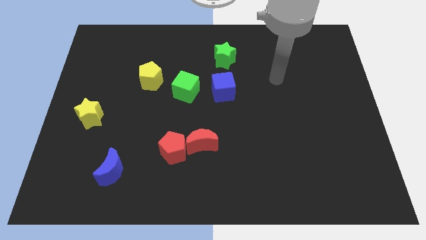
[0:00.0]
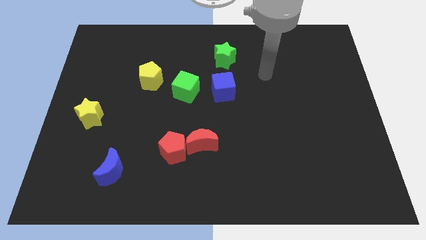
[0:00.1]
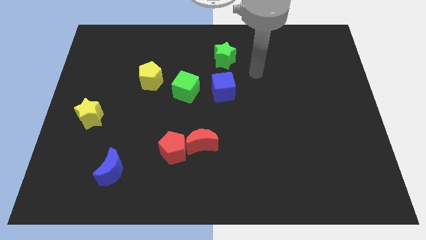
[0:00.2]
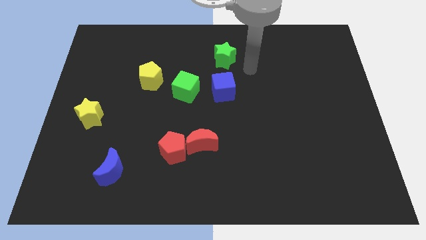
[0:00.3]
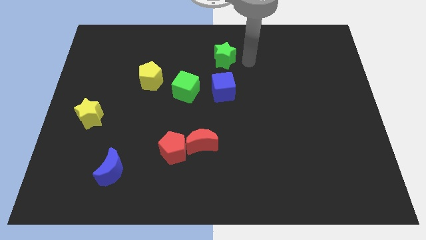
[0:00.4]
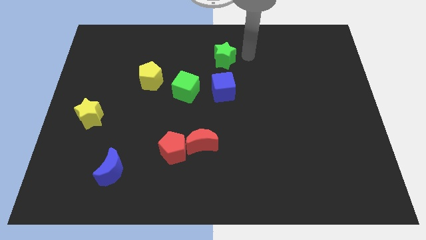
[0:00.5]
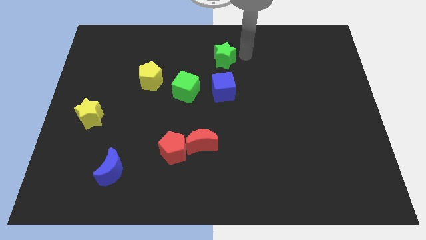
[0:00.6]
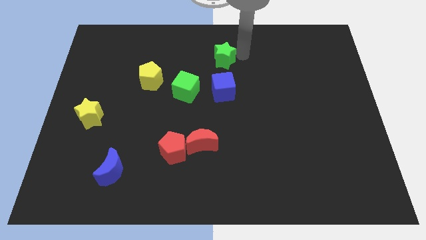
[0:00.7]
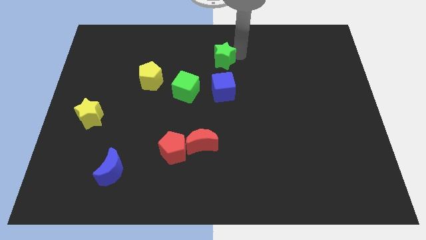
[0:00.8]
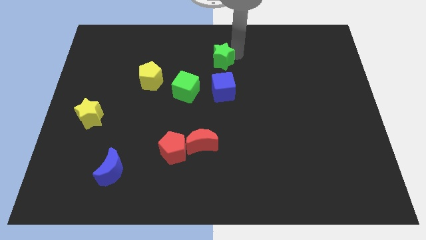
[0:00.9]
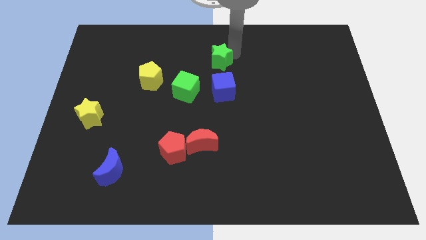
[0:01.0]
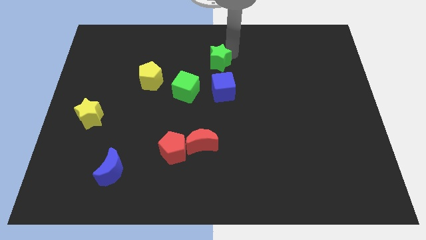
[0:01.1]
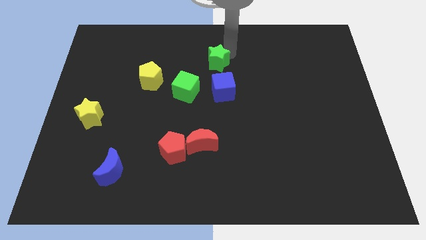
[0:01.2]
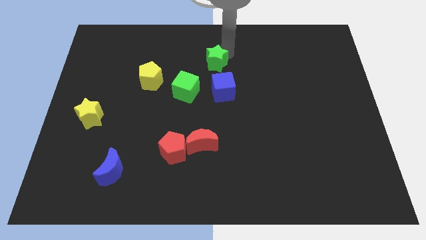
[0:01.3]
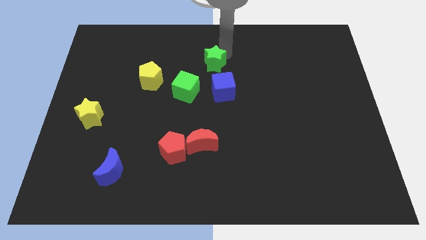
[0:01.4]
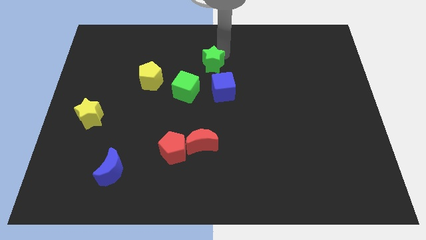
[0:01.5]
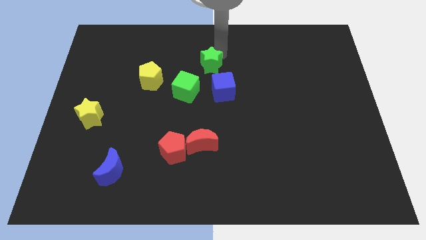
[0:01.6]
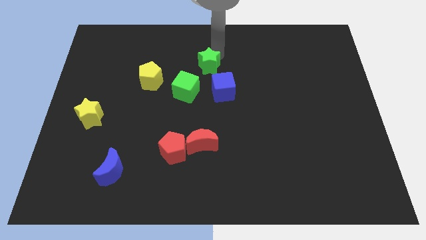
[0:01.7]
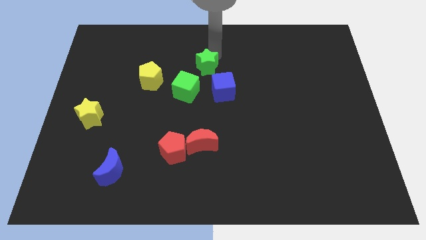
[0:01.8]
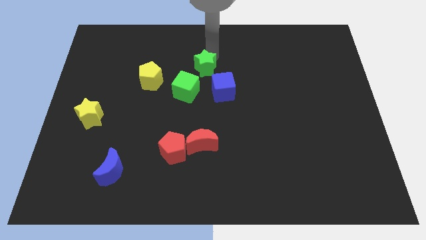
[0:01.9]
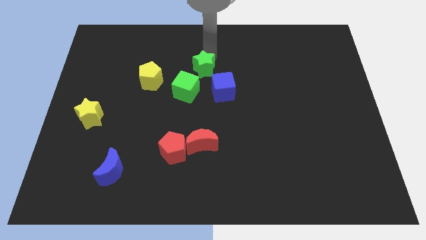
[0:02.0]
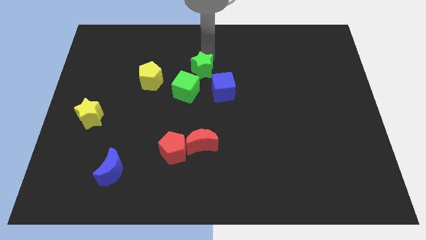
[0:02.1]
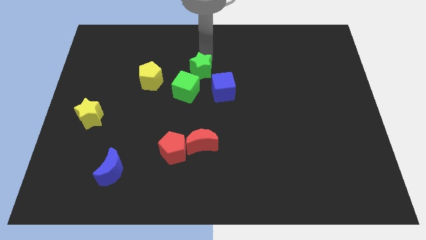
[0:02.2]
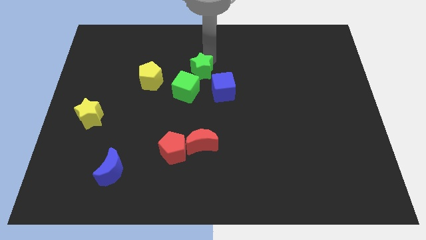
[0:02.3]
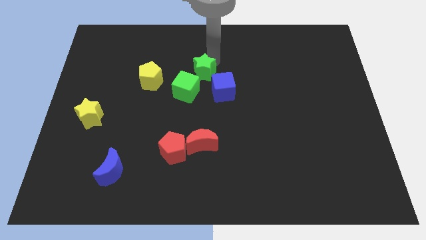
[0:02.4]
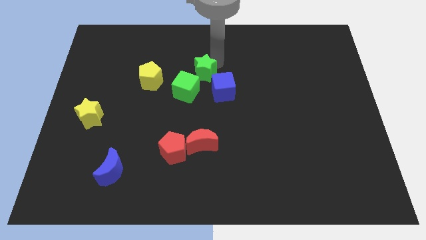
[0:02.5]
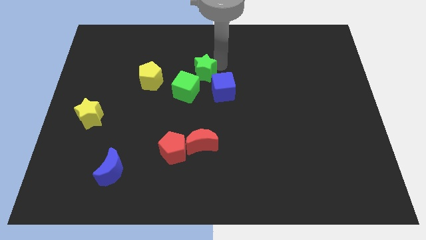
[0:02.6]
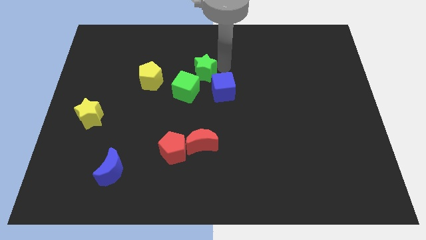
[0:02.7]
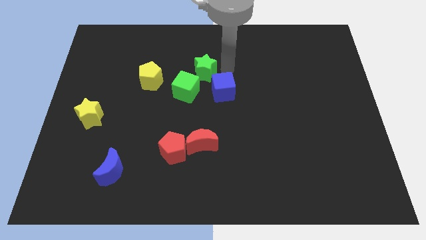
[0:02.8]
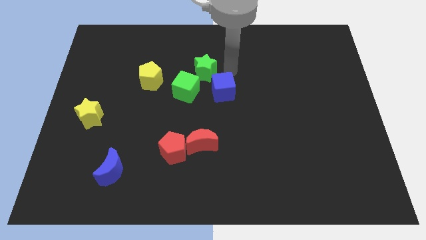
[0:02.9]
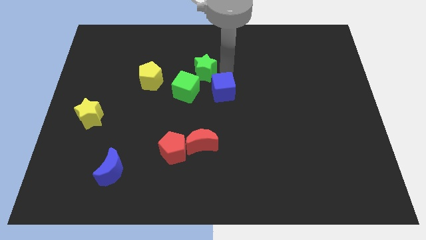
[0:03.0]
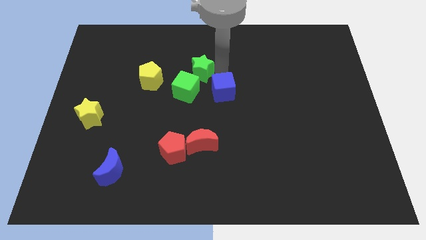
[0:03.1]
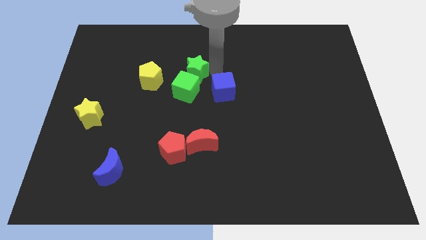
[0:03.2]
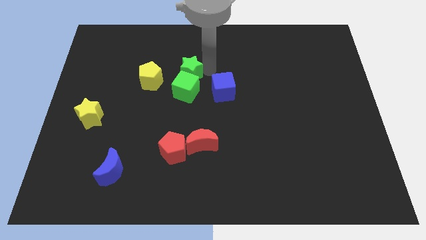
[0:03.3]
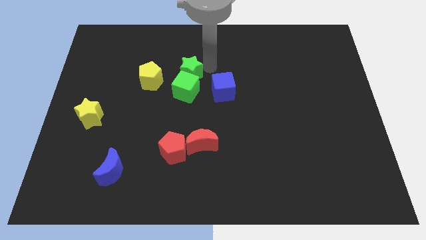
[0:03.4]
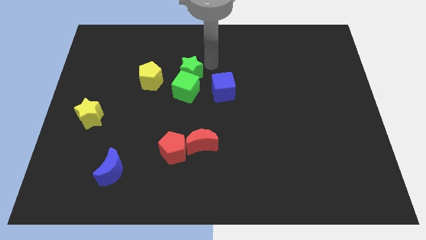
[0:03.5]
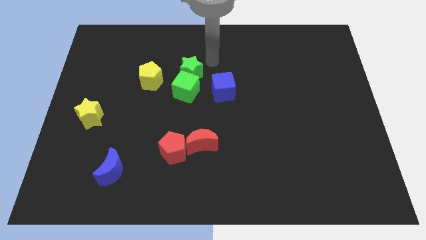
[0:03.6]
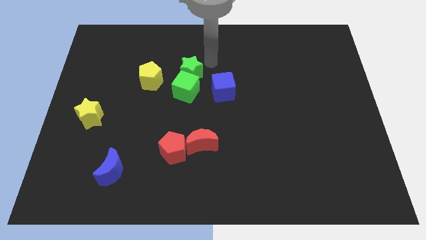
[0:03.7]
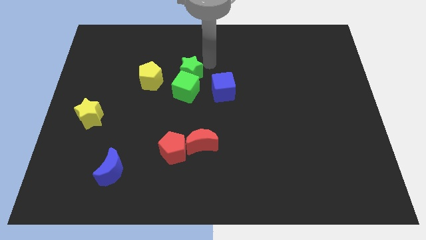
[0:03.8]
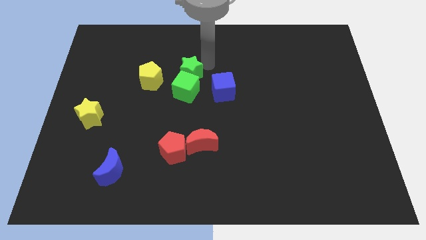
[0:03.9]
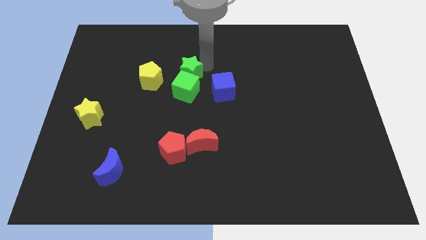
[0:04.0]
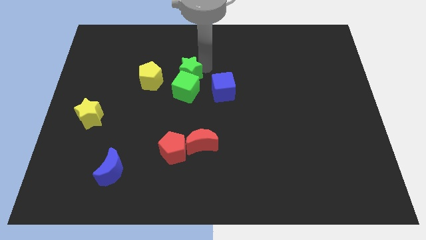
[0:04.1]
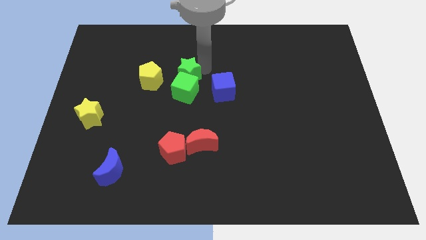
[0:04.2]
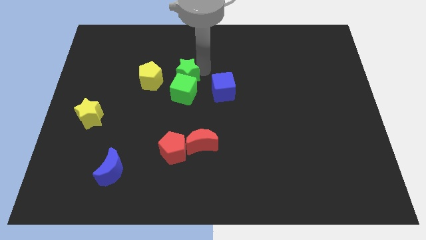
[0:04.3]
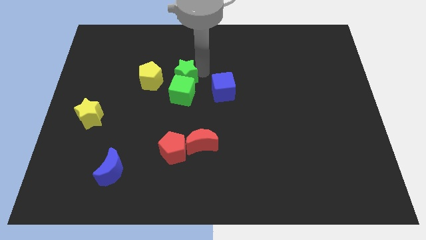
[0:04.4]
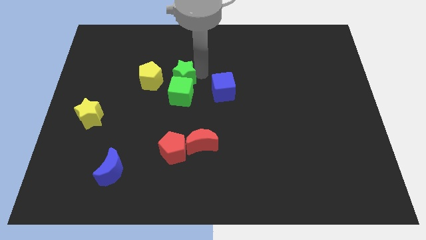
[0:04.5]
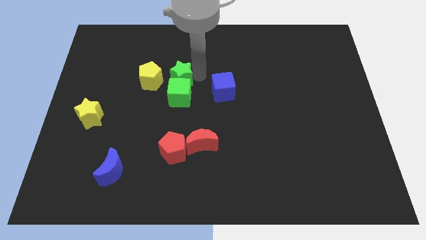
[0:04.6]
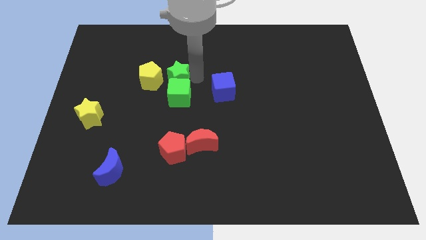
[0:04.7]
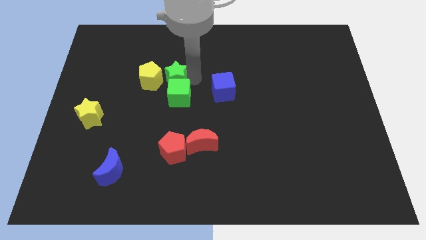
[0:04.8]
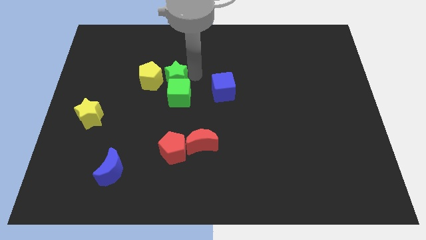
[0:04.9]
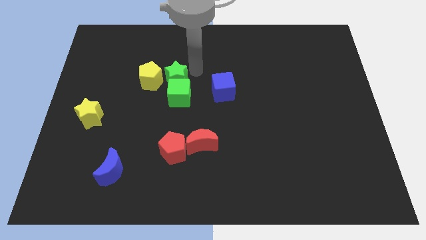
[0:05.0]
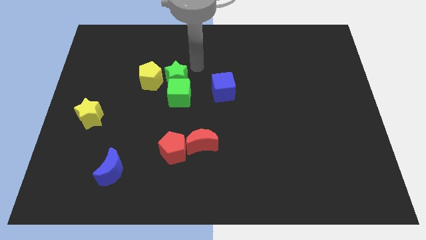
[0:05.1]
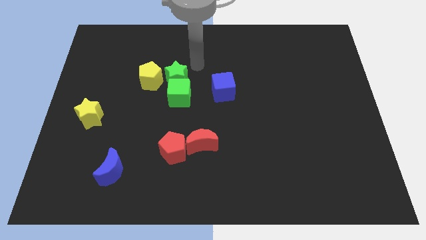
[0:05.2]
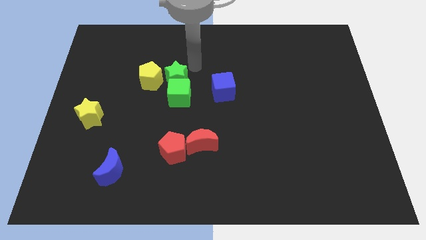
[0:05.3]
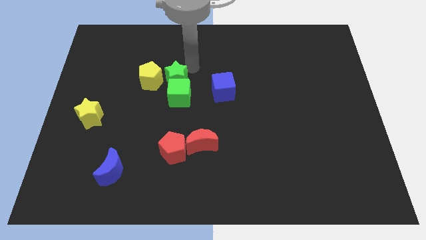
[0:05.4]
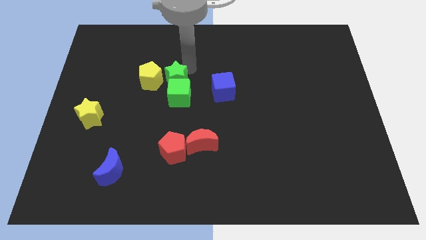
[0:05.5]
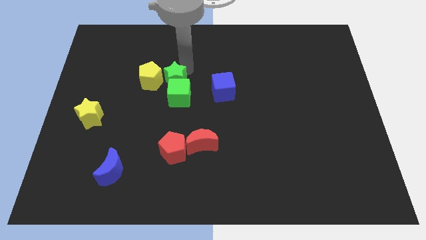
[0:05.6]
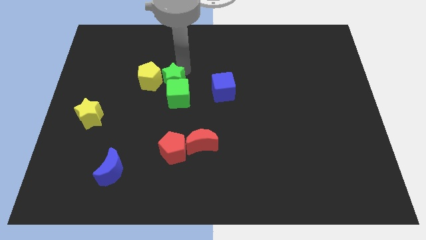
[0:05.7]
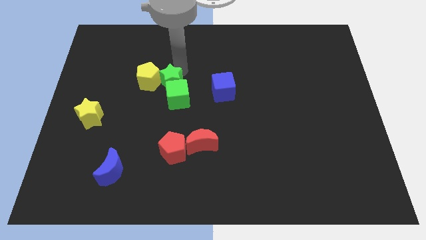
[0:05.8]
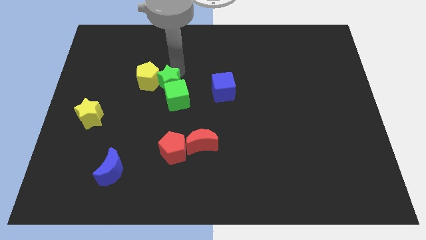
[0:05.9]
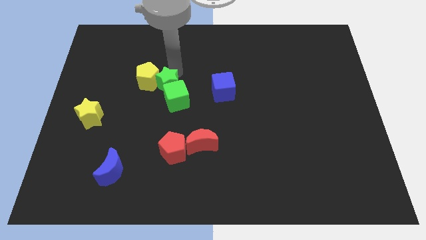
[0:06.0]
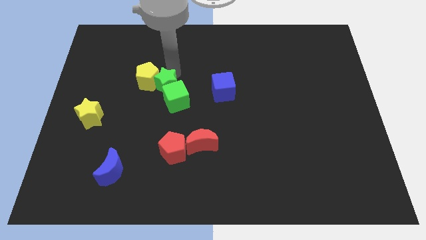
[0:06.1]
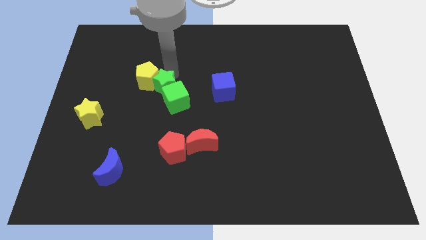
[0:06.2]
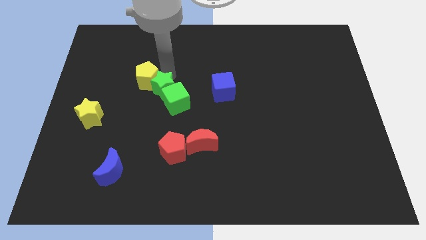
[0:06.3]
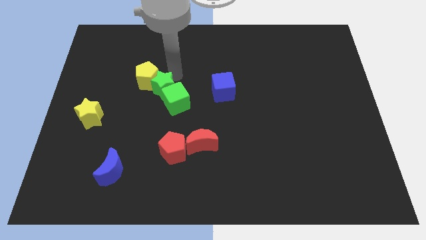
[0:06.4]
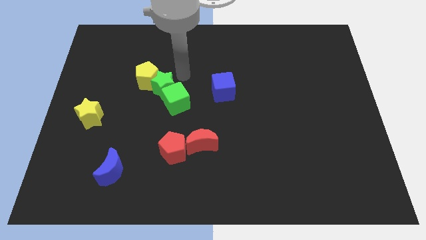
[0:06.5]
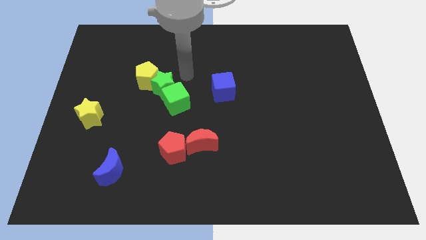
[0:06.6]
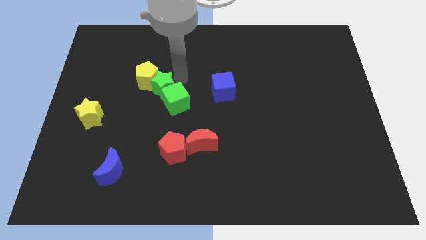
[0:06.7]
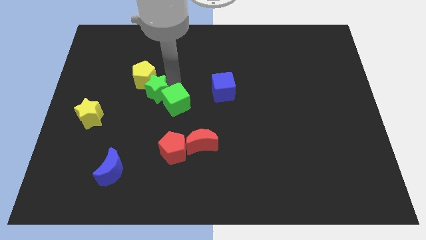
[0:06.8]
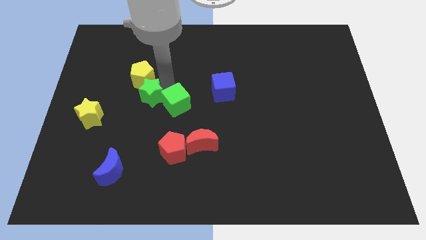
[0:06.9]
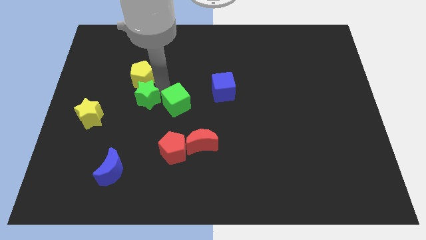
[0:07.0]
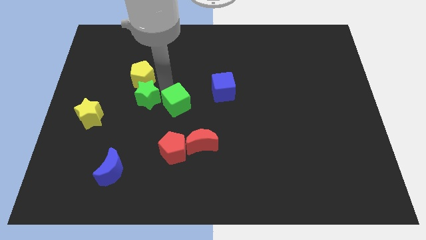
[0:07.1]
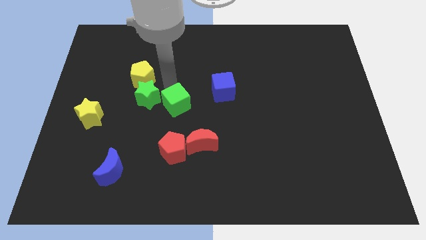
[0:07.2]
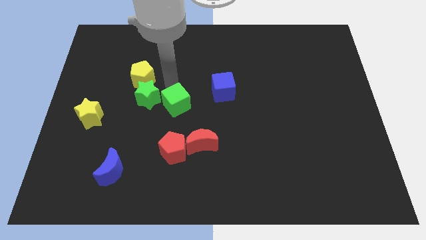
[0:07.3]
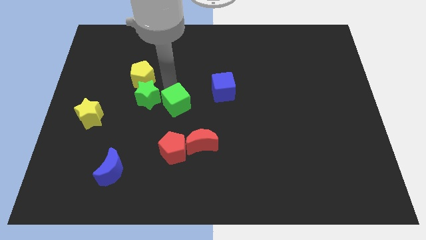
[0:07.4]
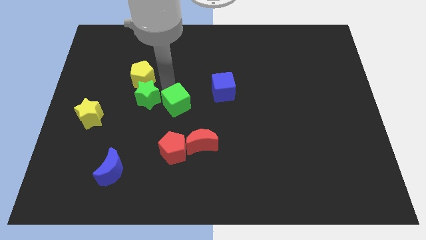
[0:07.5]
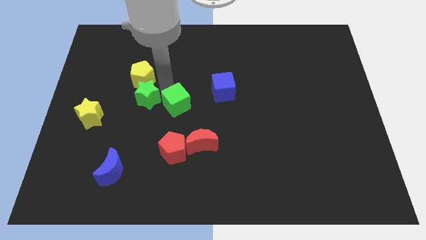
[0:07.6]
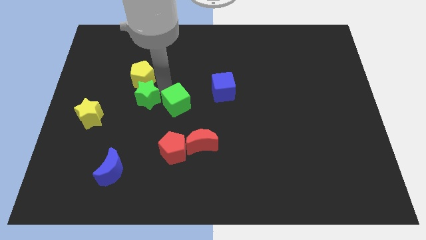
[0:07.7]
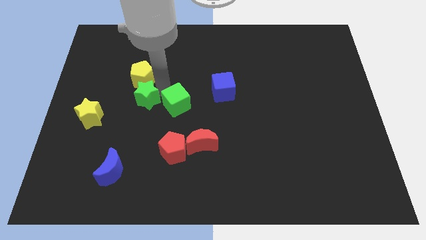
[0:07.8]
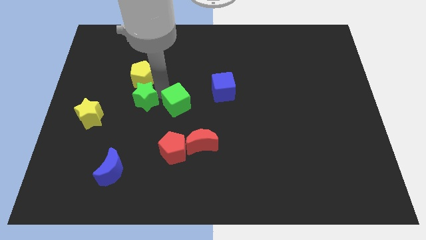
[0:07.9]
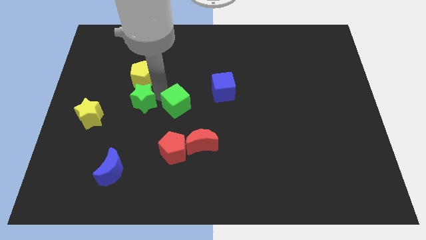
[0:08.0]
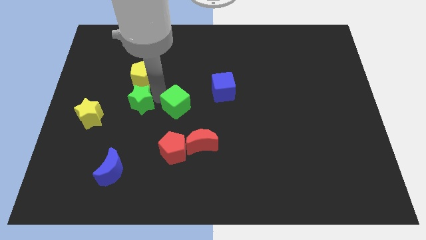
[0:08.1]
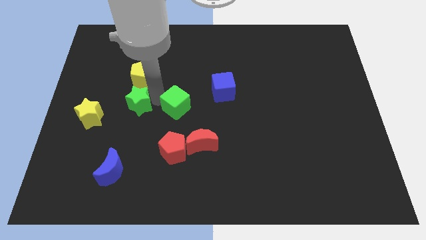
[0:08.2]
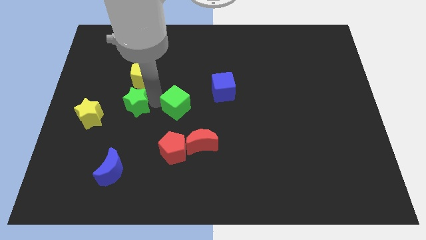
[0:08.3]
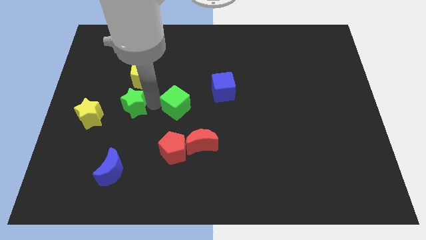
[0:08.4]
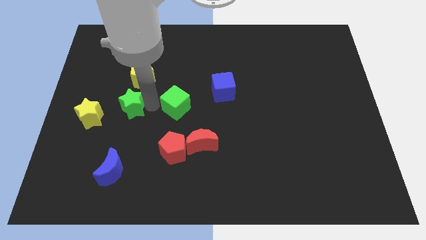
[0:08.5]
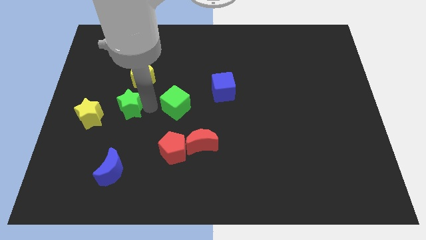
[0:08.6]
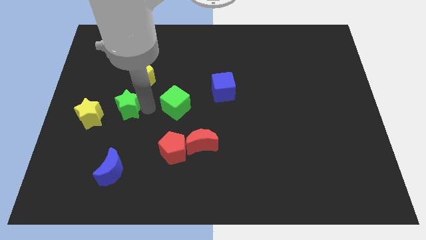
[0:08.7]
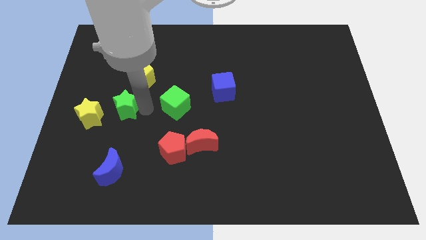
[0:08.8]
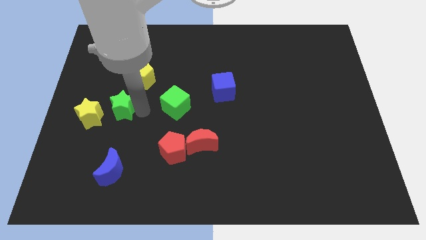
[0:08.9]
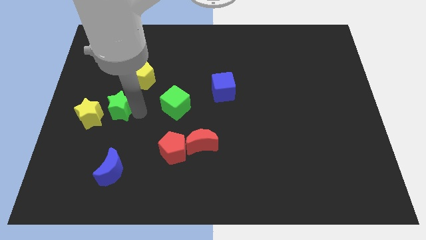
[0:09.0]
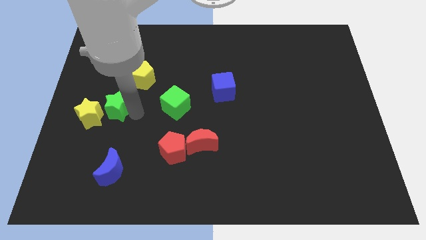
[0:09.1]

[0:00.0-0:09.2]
push the green star to the yellow star
